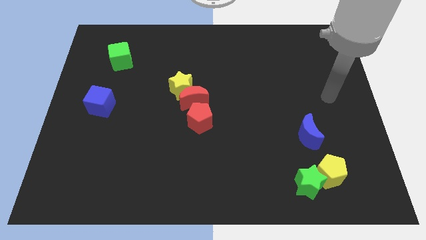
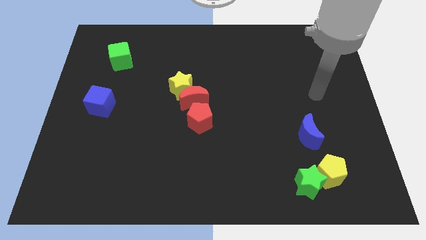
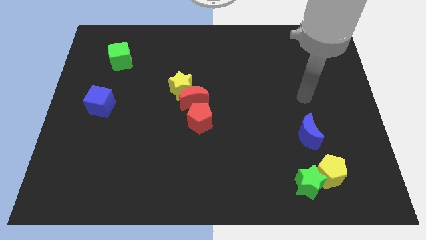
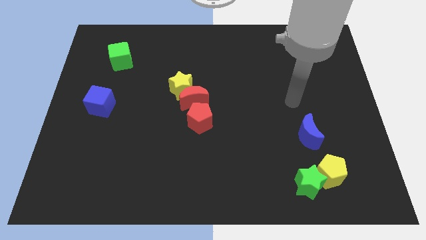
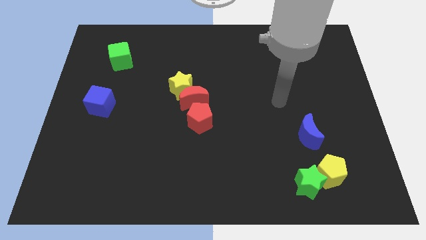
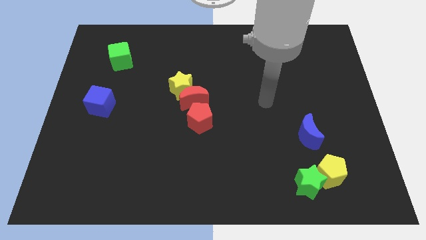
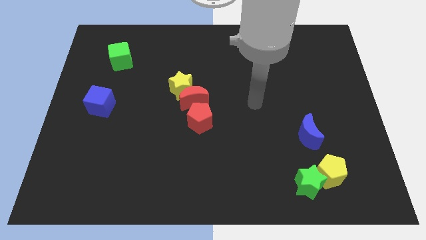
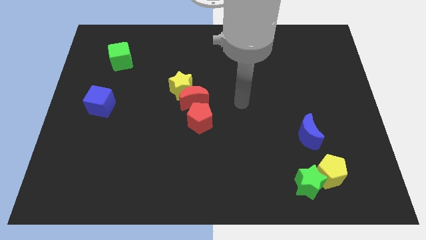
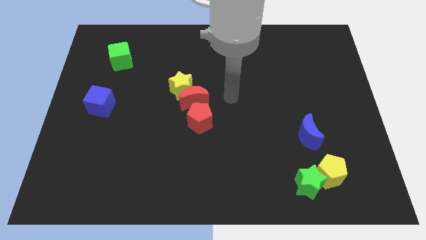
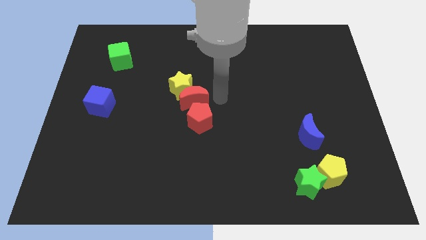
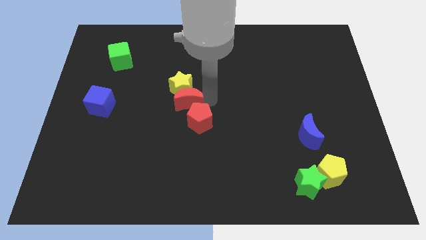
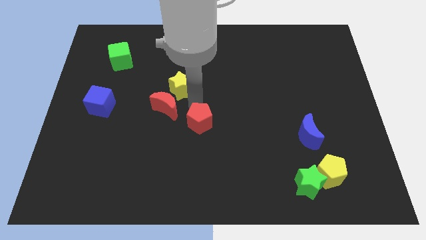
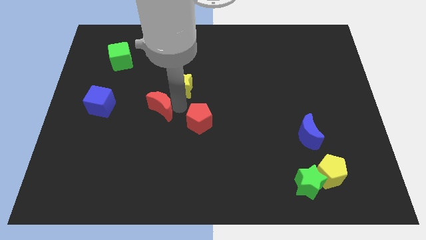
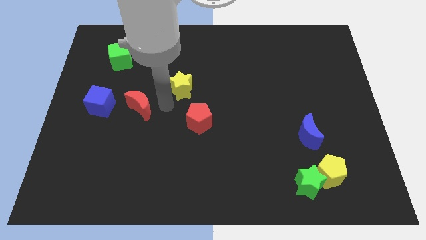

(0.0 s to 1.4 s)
move the yellow star away from the red moon

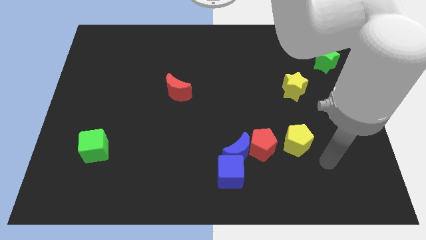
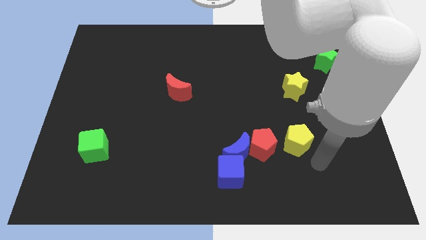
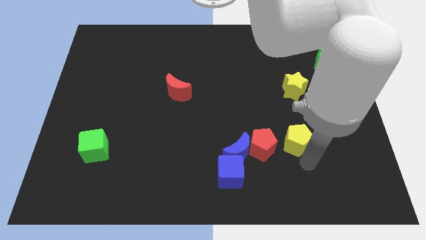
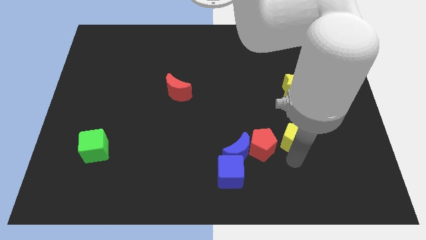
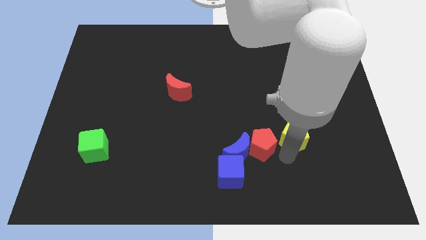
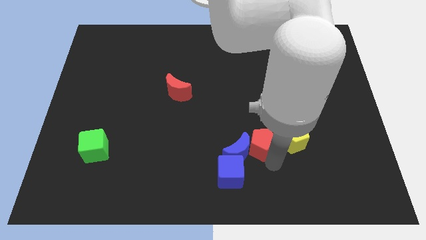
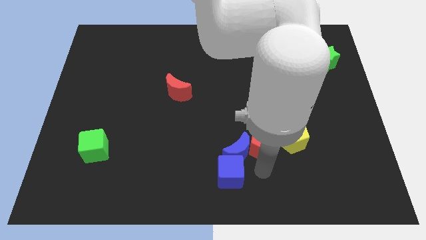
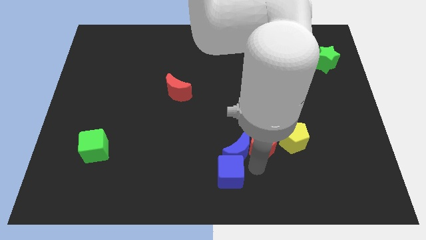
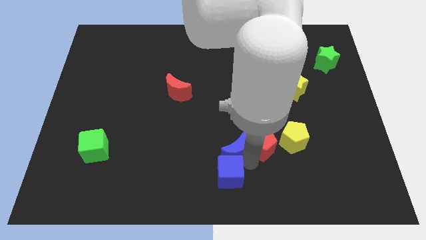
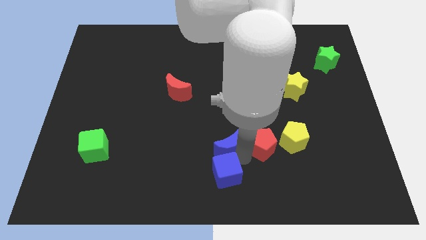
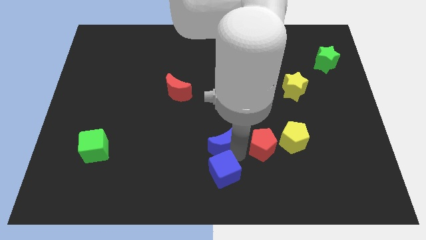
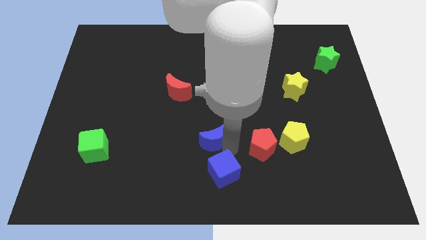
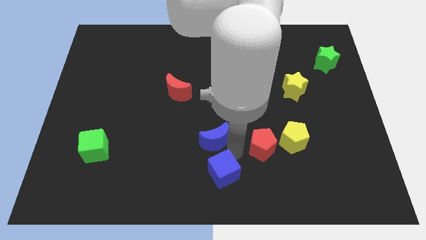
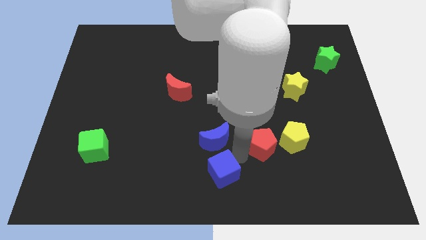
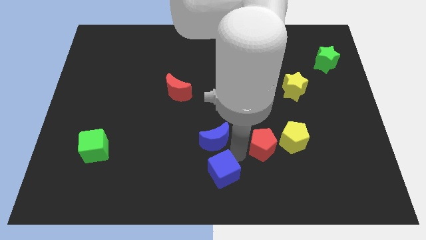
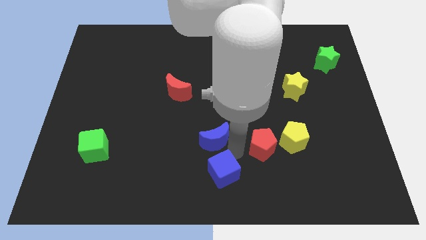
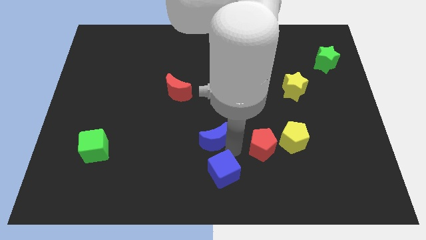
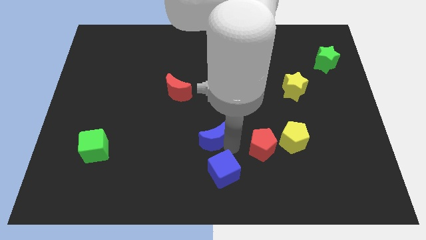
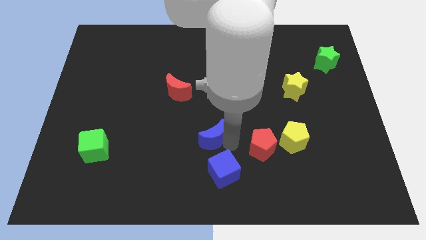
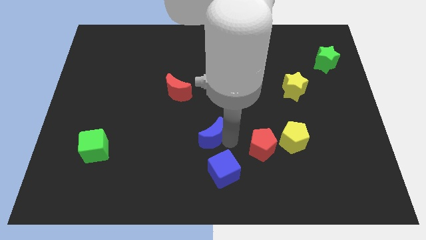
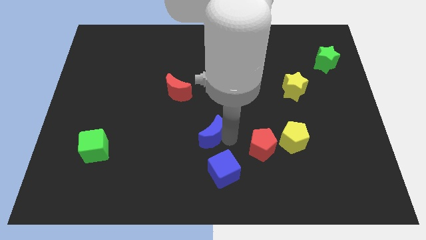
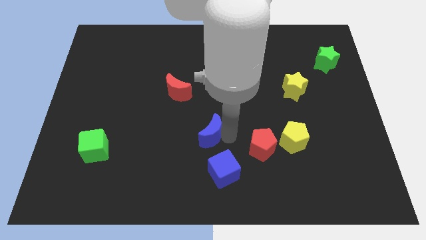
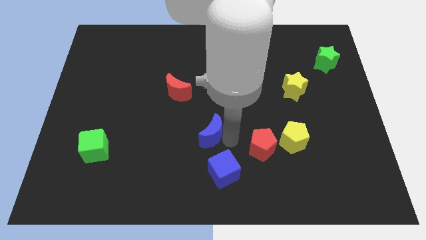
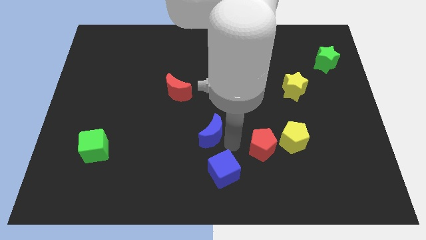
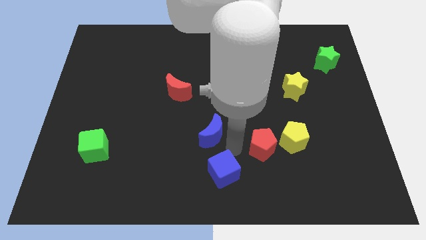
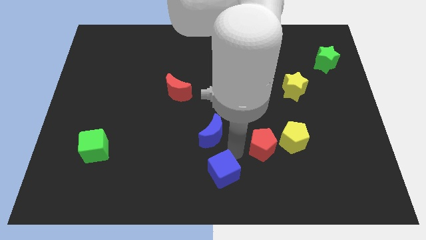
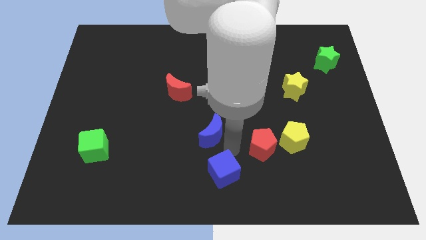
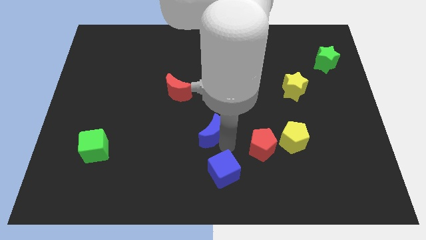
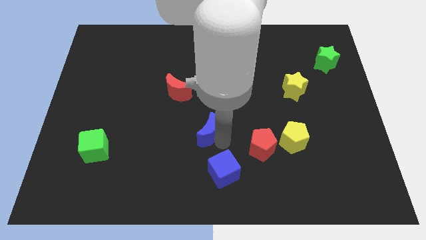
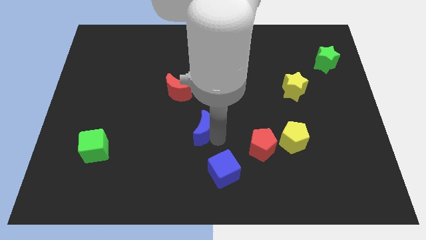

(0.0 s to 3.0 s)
separate the blue moon from the red pentagon and blue cube

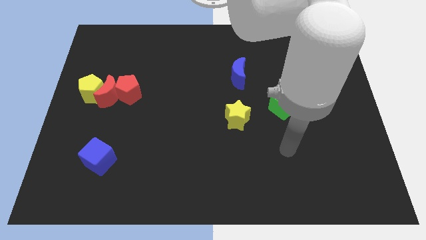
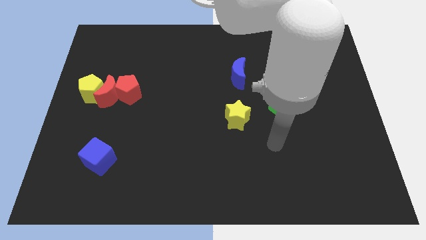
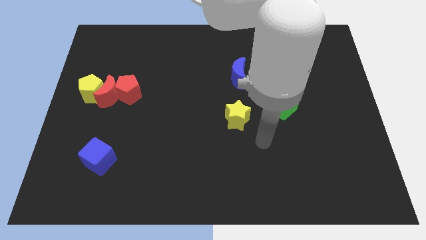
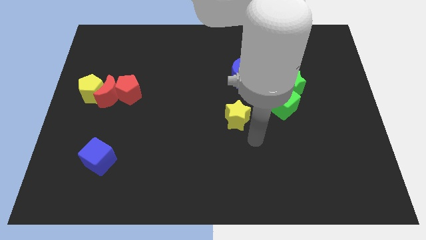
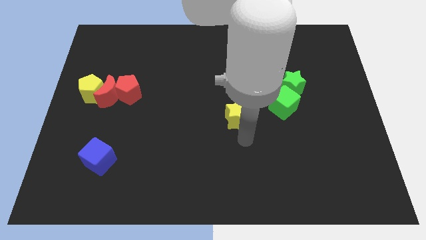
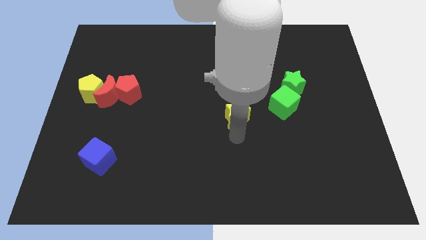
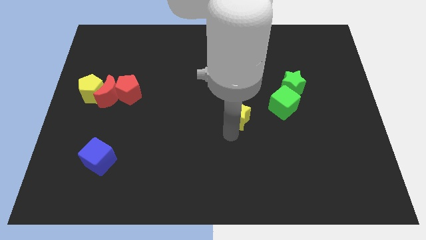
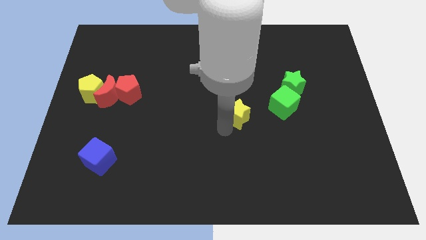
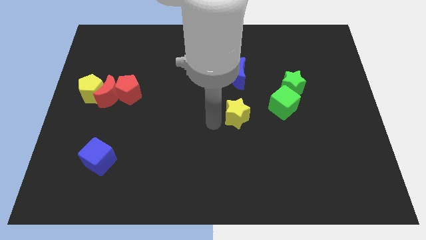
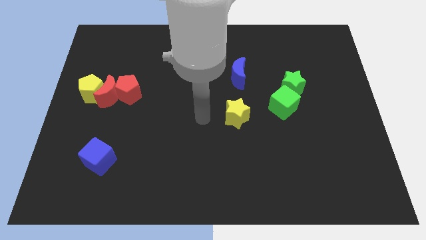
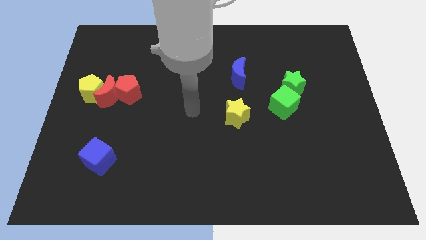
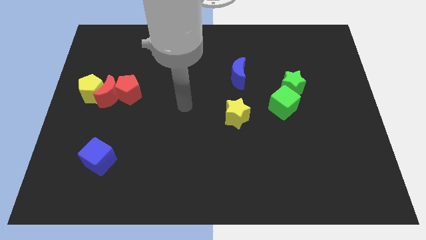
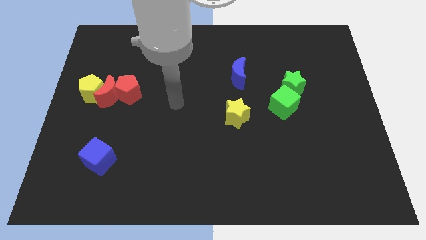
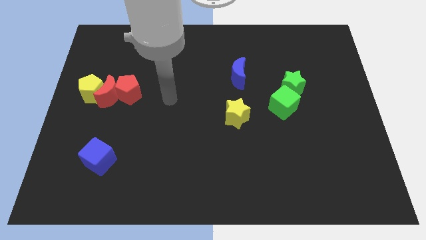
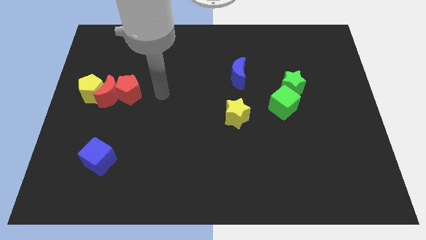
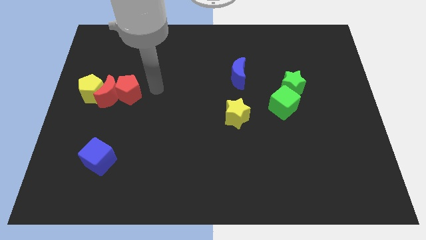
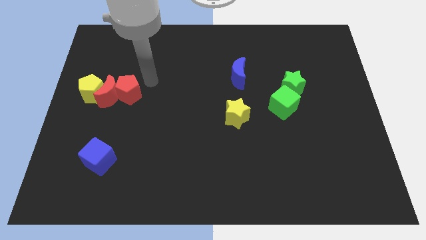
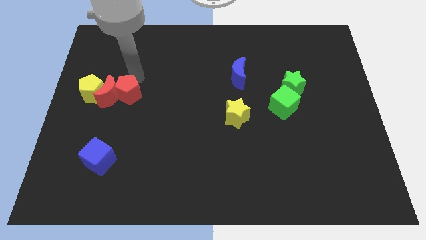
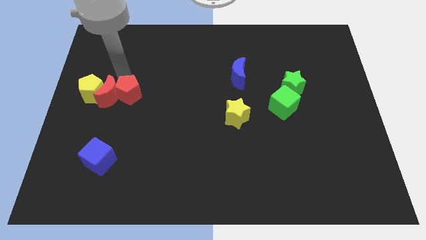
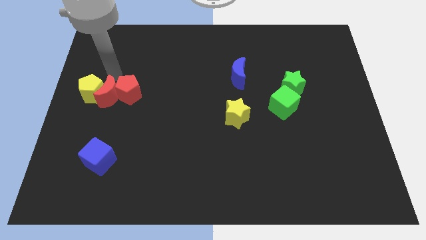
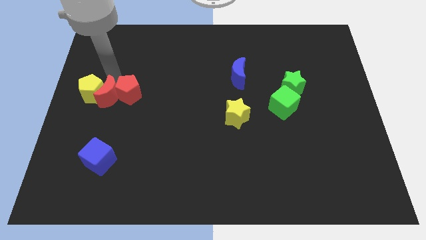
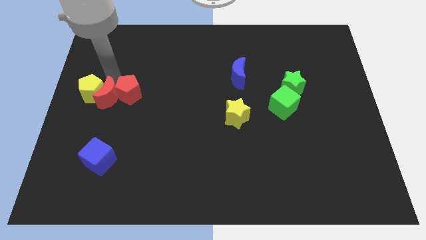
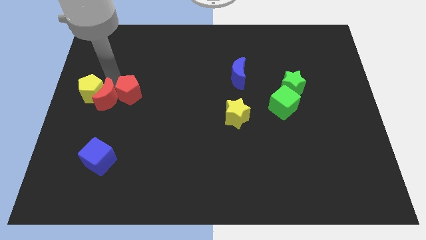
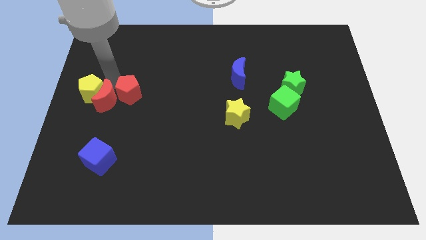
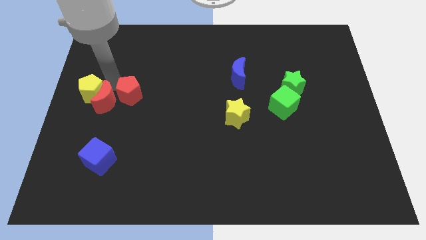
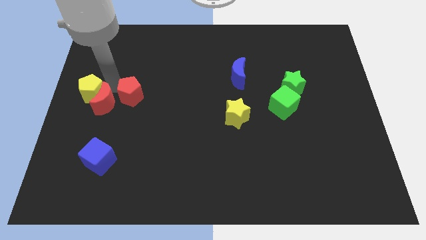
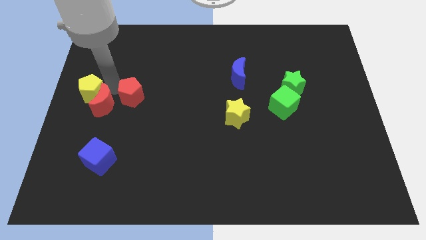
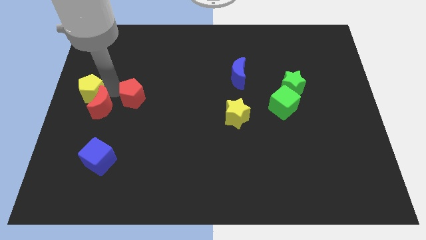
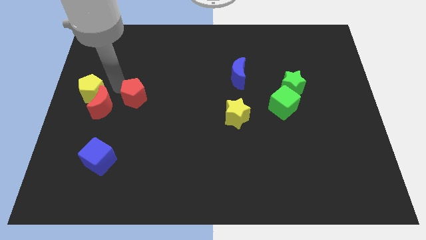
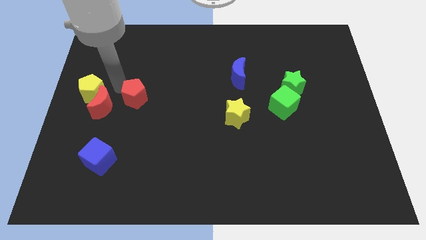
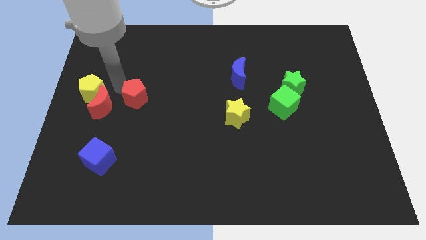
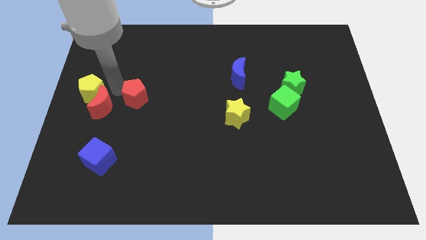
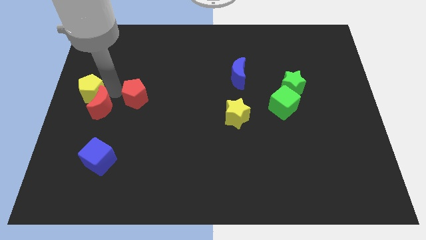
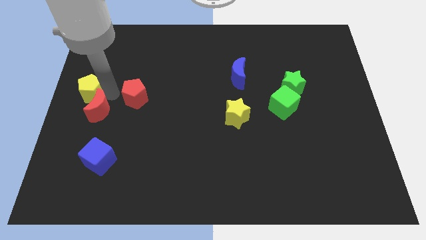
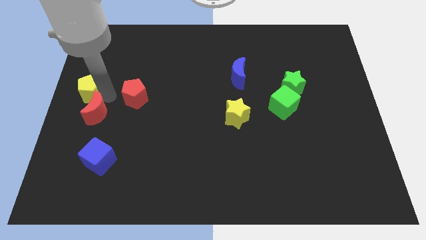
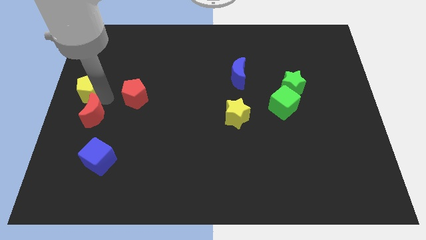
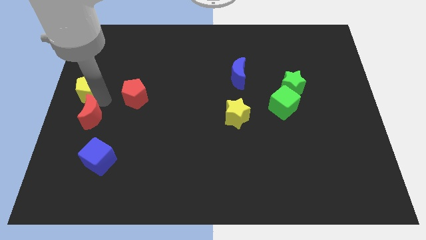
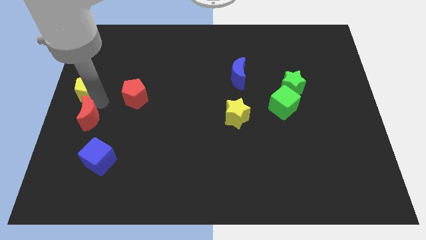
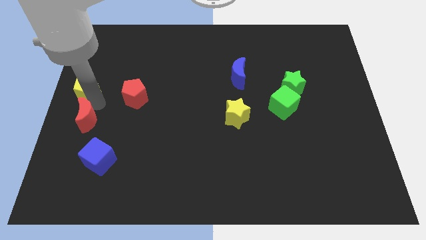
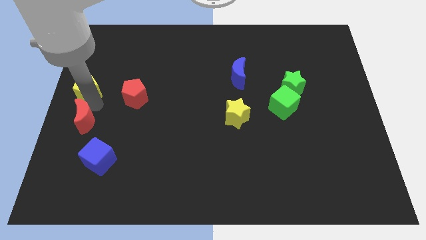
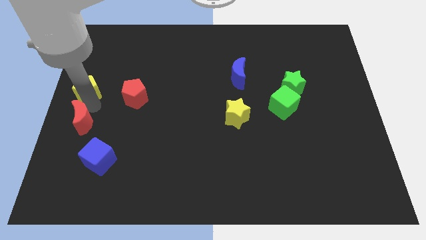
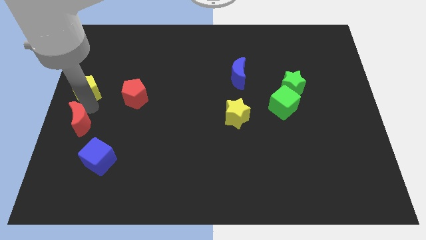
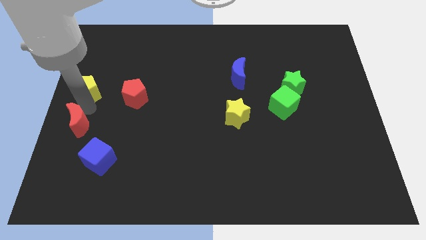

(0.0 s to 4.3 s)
pull the red moon apart from the yellow pentagon and red pentagon

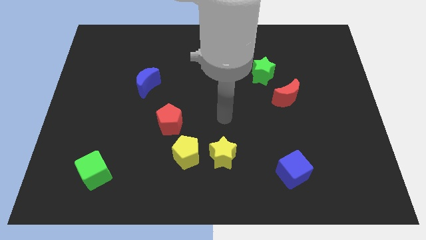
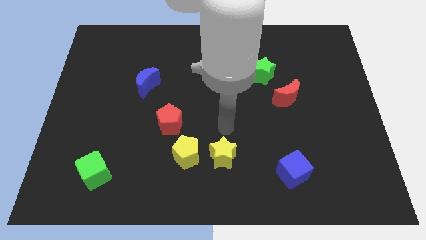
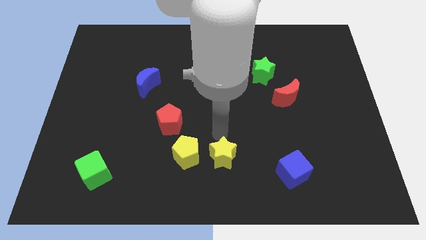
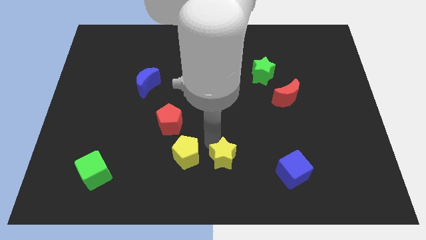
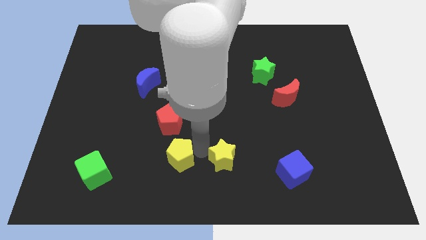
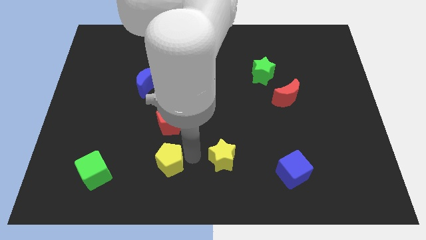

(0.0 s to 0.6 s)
move the yellow star away from the yellow pentagon
